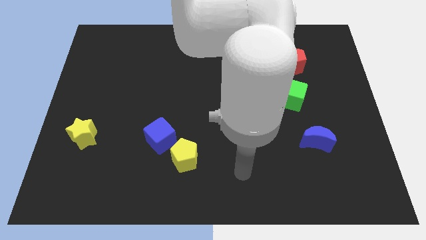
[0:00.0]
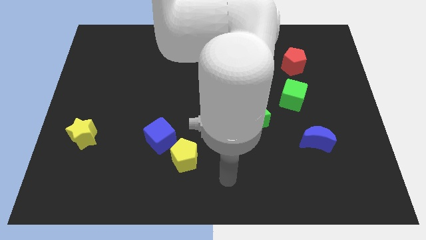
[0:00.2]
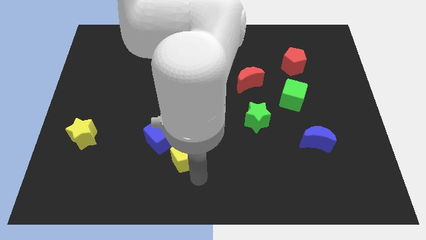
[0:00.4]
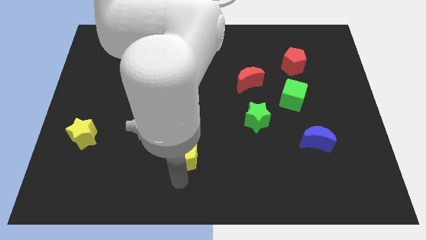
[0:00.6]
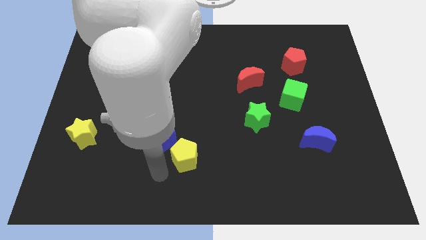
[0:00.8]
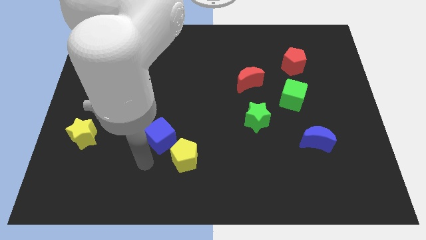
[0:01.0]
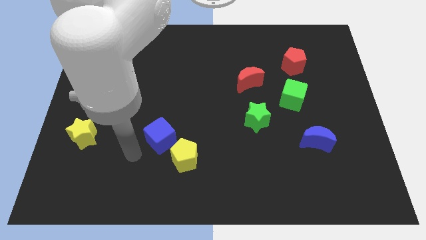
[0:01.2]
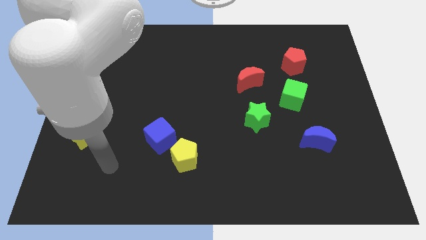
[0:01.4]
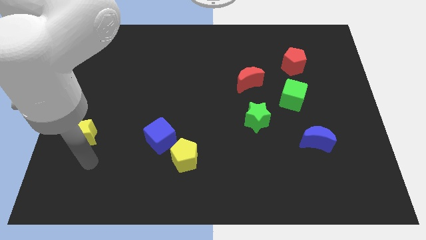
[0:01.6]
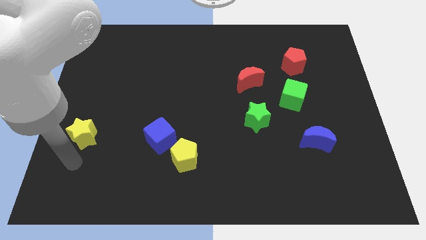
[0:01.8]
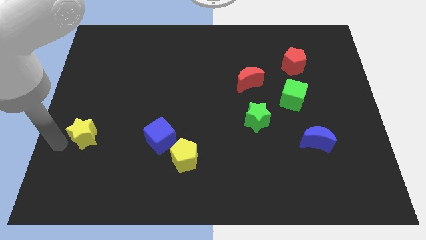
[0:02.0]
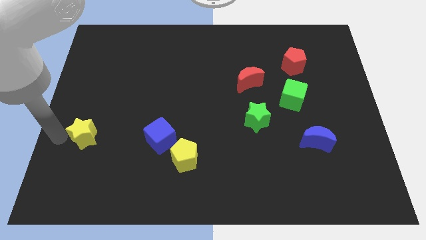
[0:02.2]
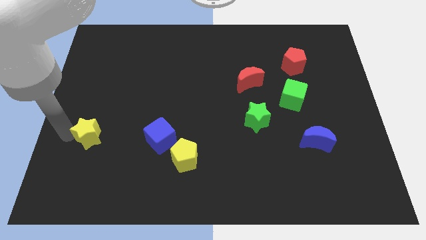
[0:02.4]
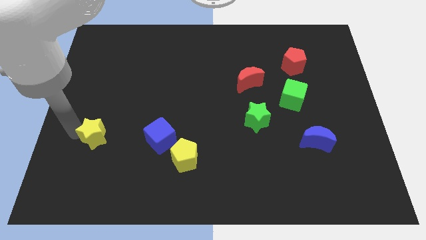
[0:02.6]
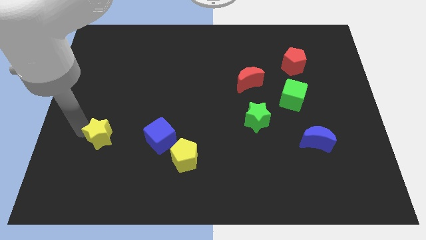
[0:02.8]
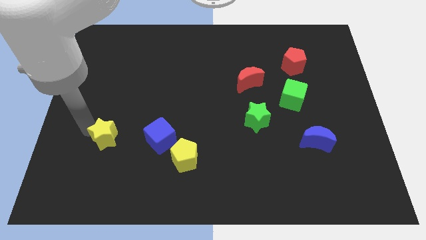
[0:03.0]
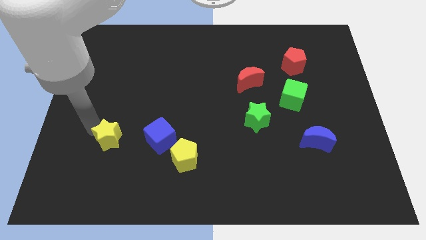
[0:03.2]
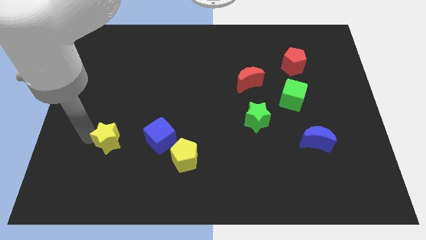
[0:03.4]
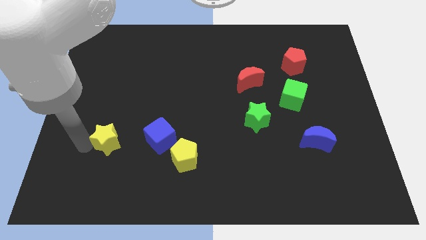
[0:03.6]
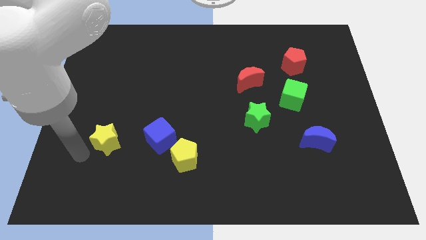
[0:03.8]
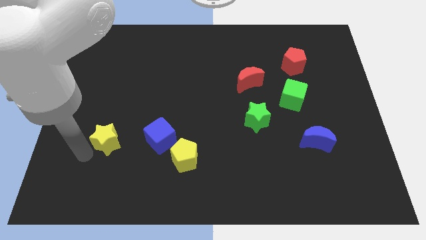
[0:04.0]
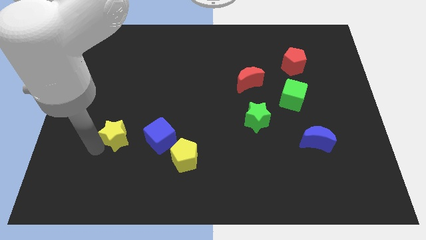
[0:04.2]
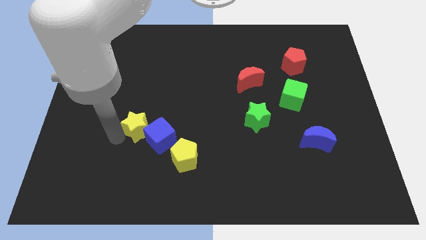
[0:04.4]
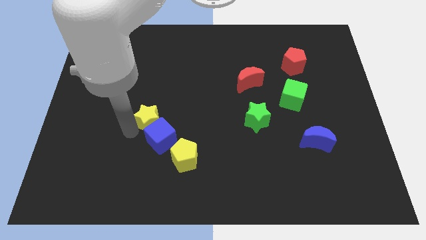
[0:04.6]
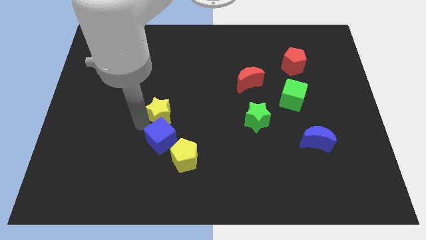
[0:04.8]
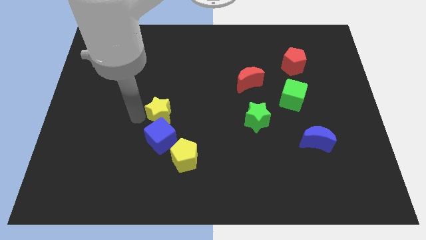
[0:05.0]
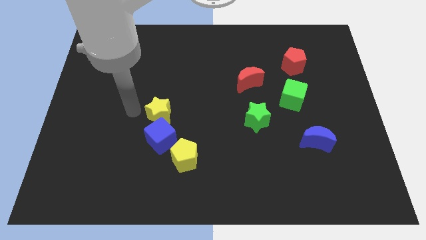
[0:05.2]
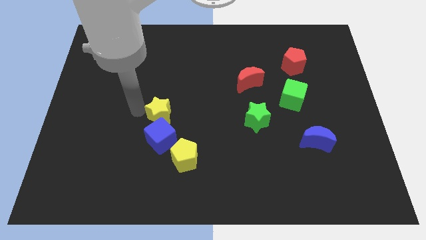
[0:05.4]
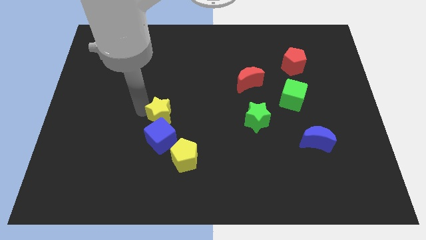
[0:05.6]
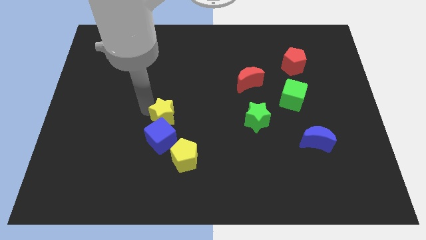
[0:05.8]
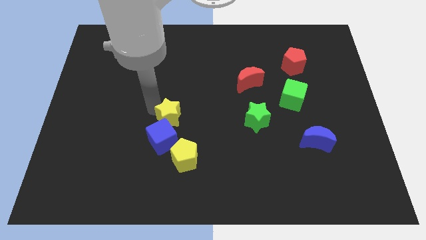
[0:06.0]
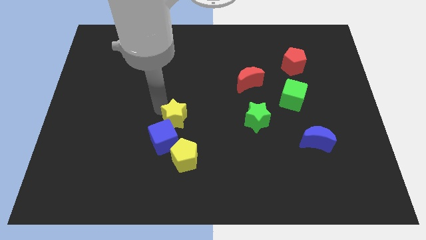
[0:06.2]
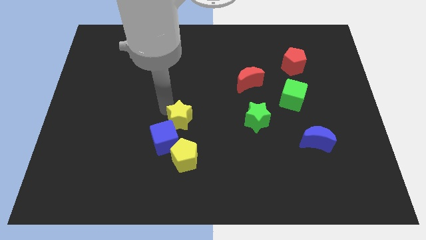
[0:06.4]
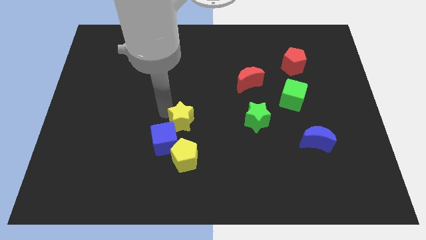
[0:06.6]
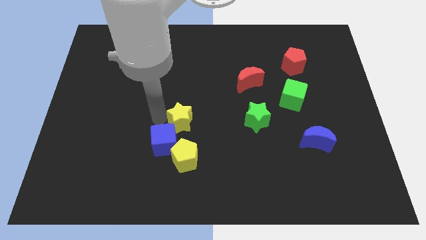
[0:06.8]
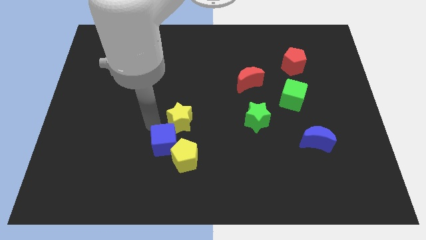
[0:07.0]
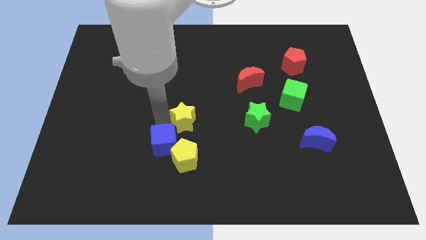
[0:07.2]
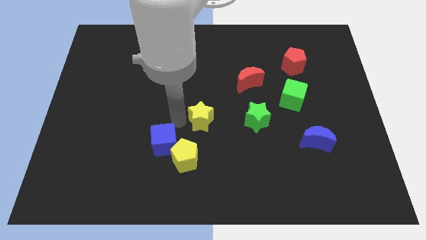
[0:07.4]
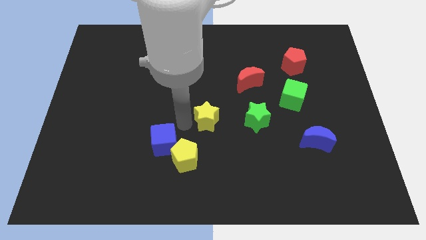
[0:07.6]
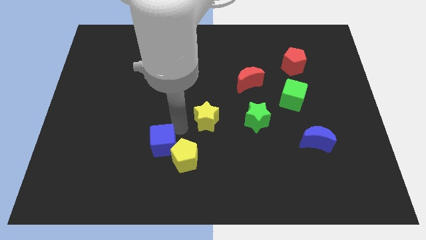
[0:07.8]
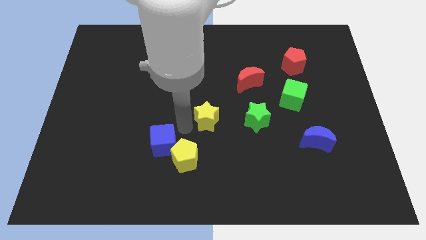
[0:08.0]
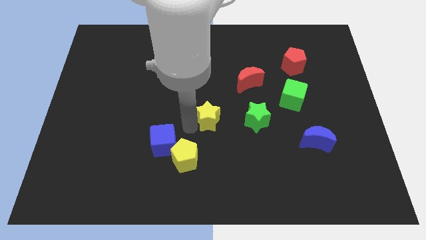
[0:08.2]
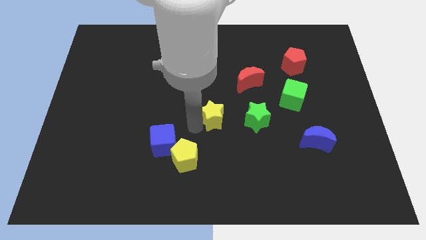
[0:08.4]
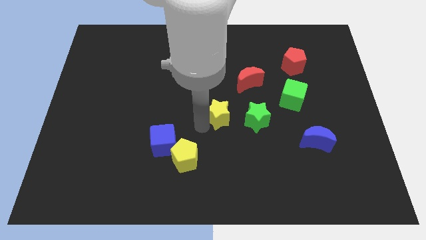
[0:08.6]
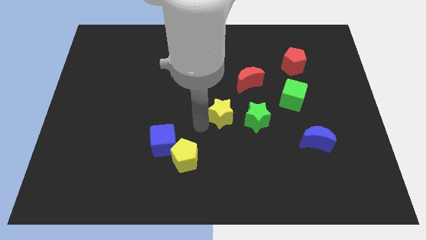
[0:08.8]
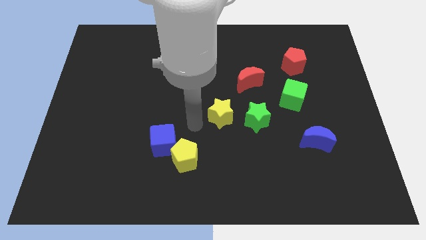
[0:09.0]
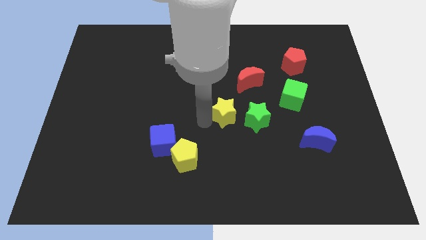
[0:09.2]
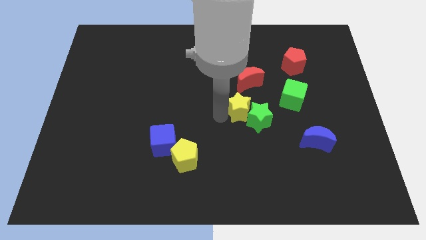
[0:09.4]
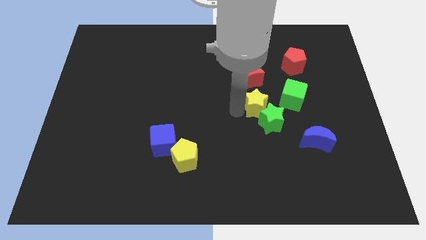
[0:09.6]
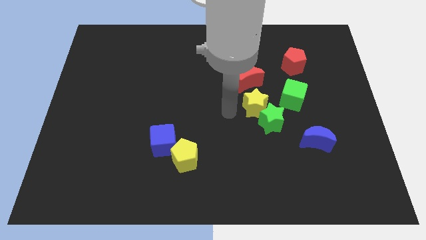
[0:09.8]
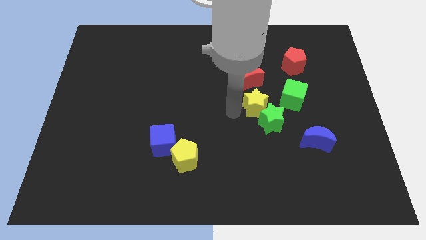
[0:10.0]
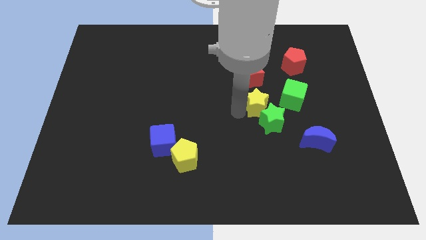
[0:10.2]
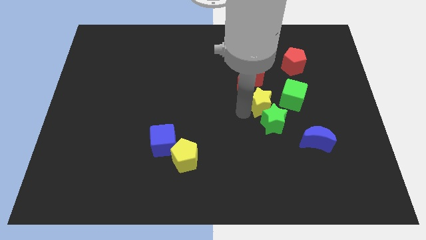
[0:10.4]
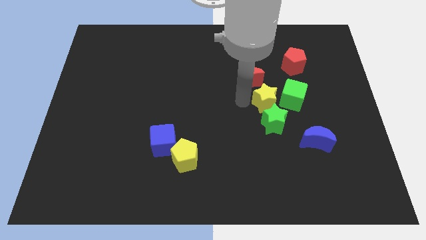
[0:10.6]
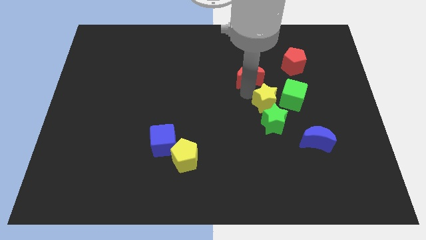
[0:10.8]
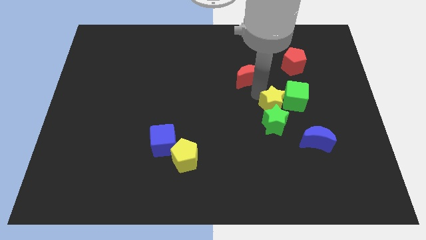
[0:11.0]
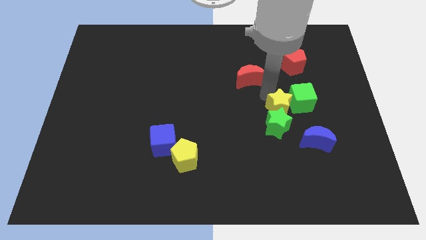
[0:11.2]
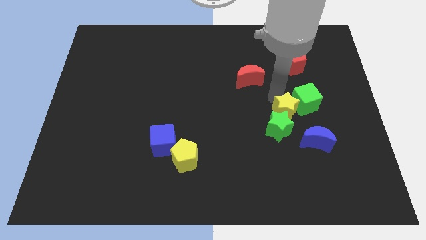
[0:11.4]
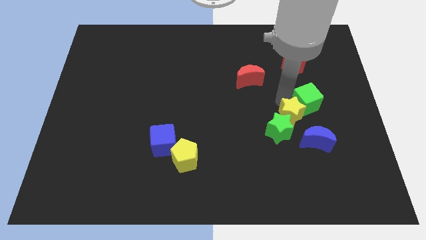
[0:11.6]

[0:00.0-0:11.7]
push the yellow star just right of the green star

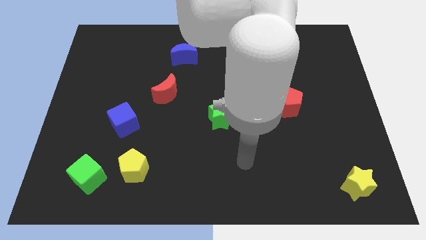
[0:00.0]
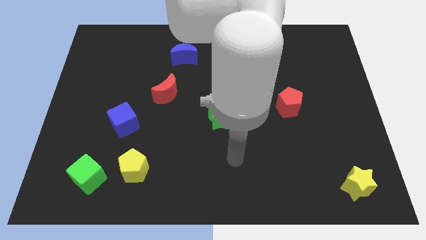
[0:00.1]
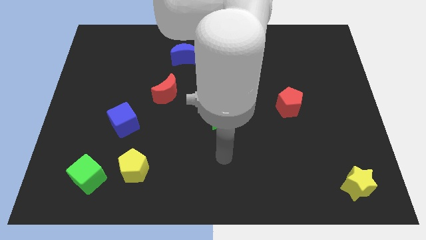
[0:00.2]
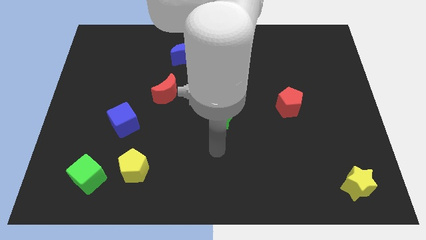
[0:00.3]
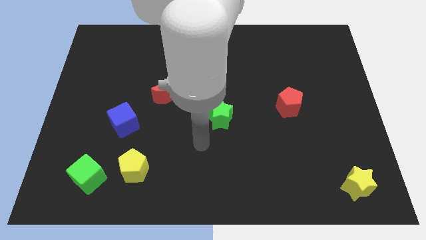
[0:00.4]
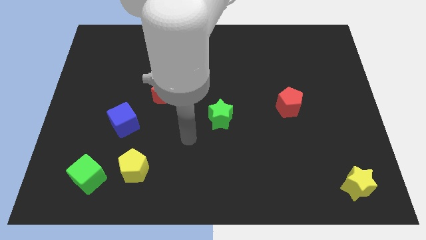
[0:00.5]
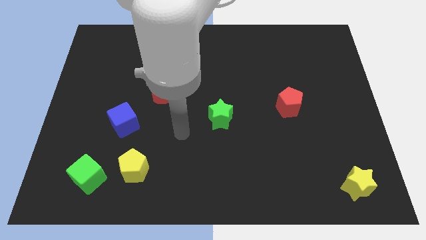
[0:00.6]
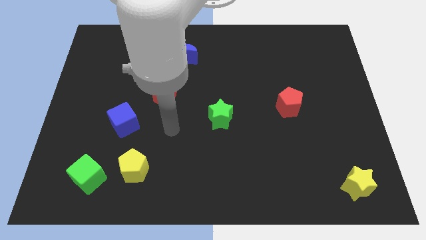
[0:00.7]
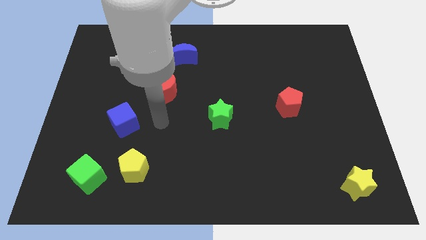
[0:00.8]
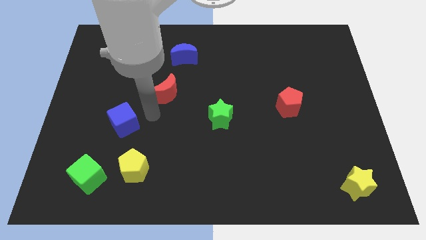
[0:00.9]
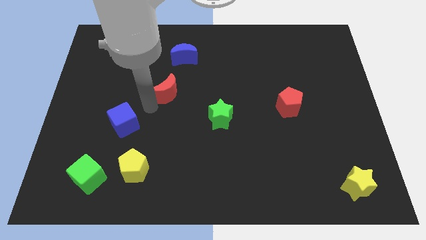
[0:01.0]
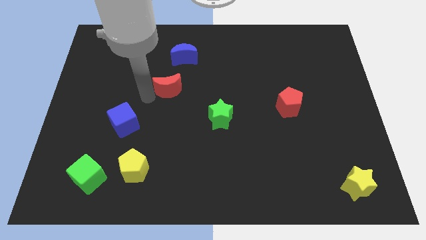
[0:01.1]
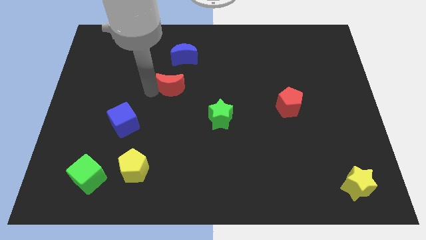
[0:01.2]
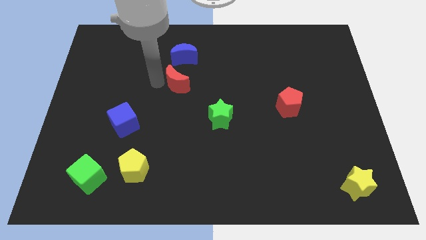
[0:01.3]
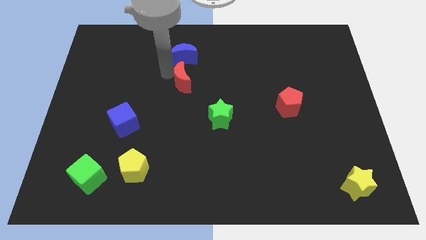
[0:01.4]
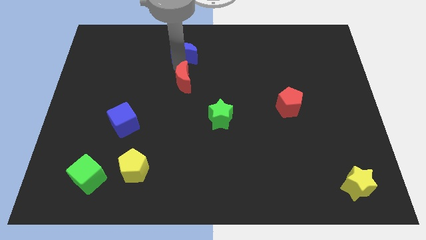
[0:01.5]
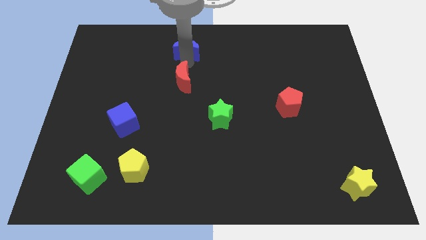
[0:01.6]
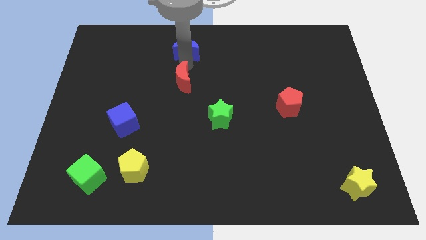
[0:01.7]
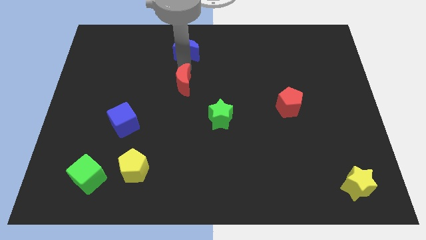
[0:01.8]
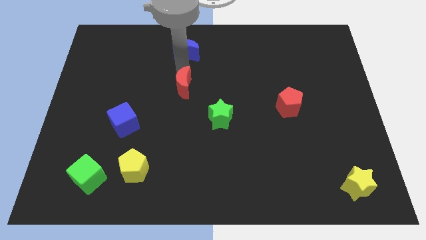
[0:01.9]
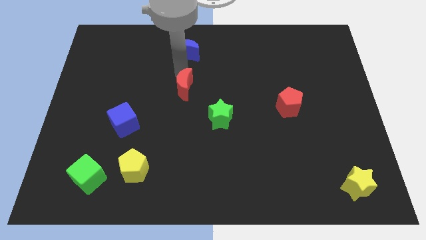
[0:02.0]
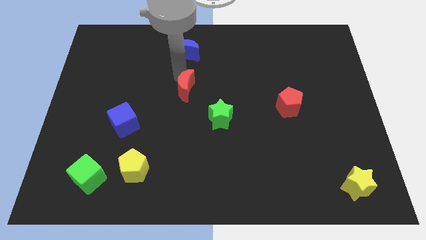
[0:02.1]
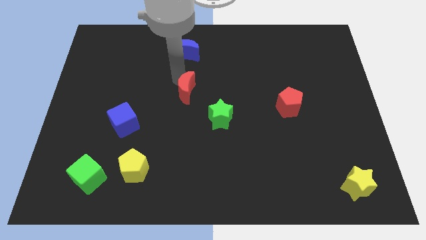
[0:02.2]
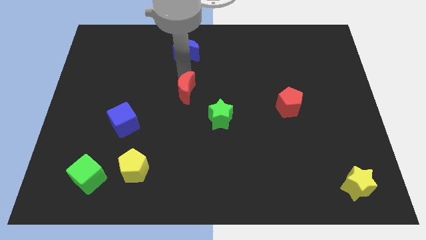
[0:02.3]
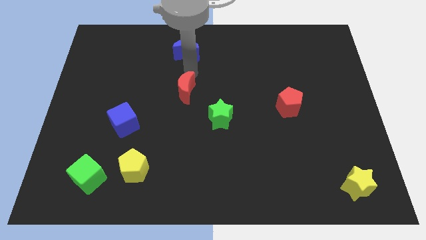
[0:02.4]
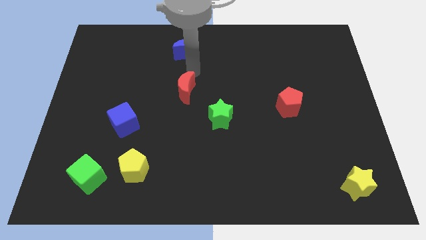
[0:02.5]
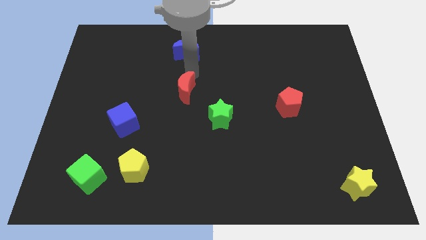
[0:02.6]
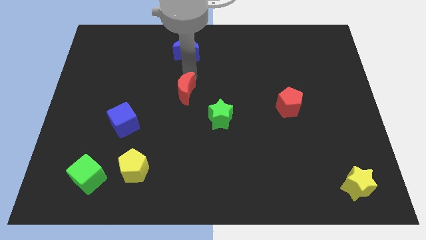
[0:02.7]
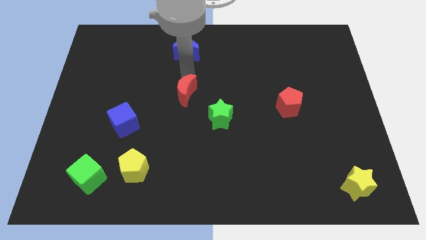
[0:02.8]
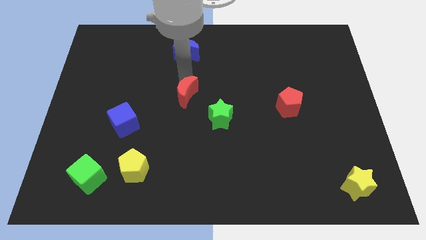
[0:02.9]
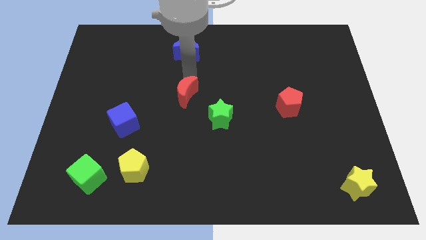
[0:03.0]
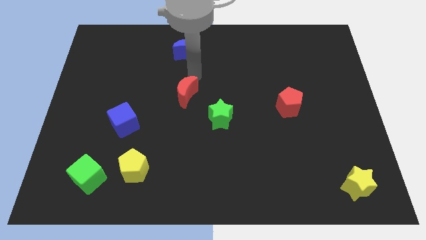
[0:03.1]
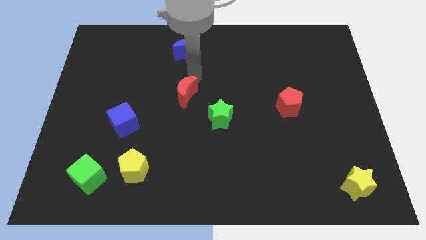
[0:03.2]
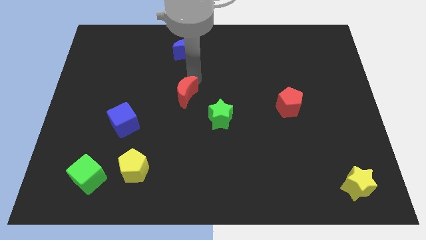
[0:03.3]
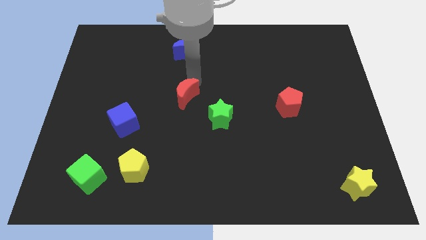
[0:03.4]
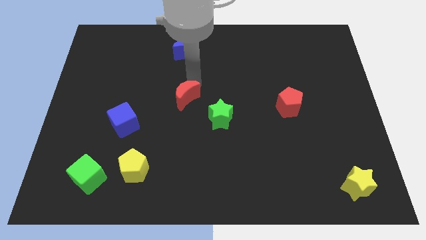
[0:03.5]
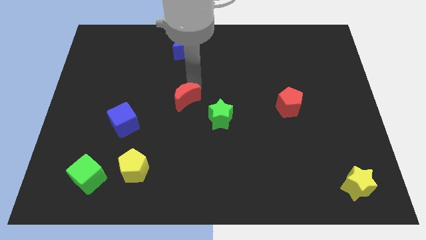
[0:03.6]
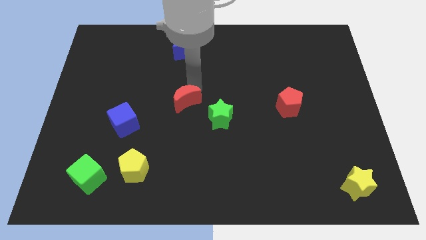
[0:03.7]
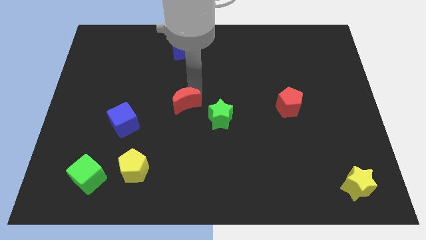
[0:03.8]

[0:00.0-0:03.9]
slide the red moon to the left side of the green star
